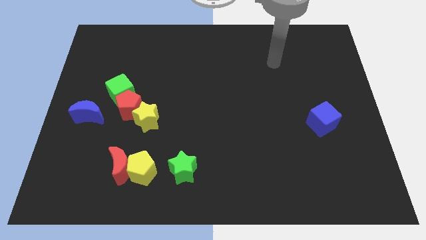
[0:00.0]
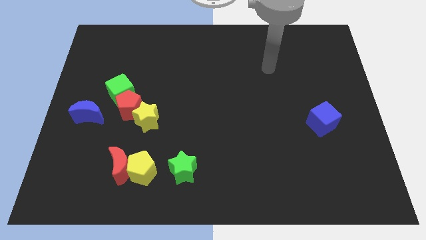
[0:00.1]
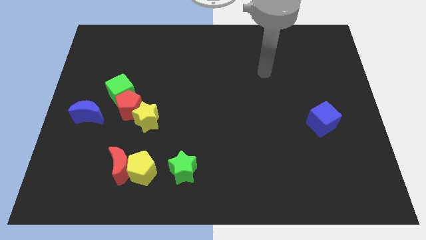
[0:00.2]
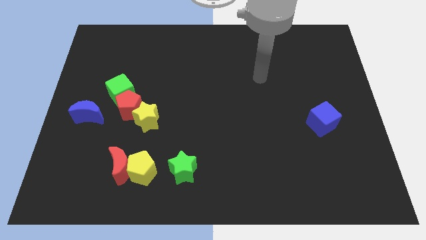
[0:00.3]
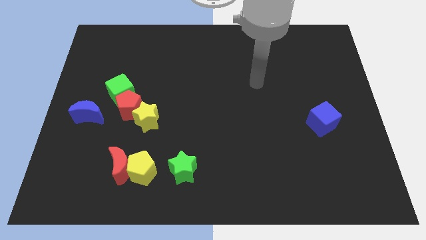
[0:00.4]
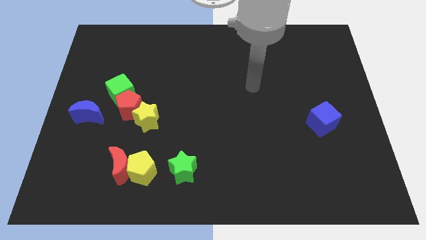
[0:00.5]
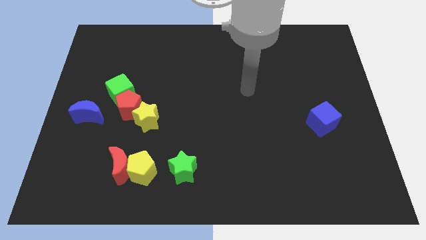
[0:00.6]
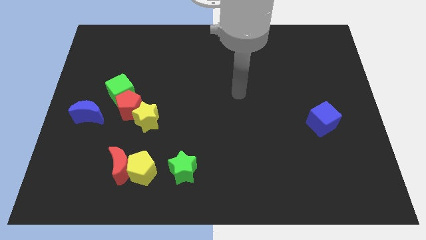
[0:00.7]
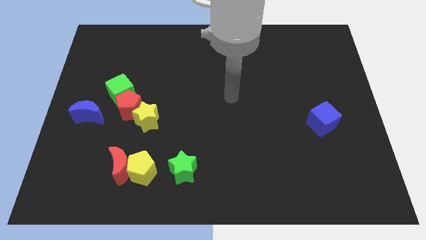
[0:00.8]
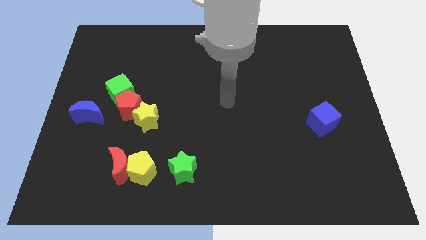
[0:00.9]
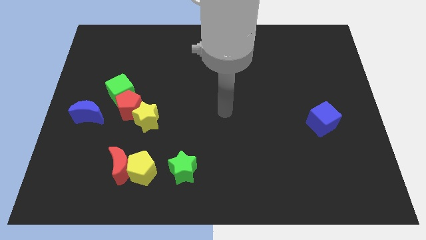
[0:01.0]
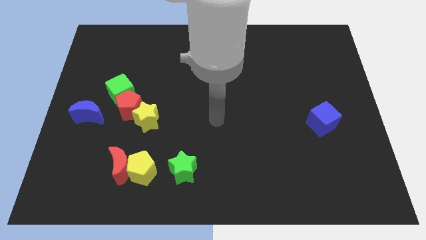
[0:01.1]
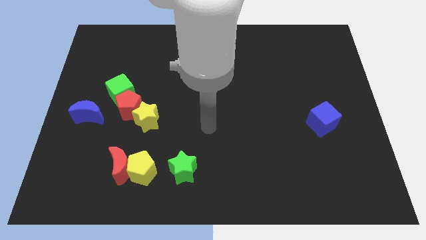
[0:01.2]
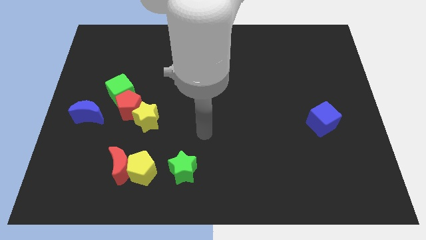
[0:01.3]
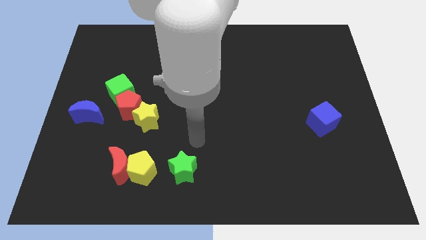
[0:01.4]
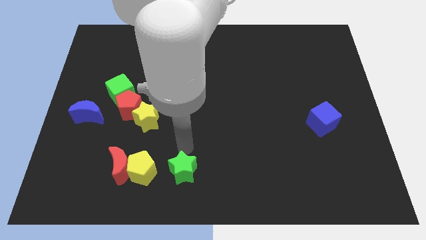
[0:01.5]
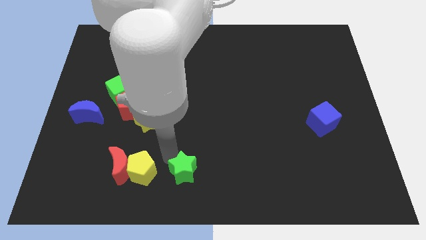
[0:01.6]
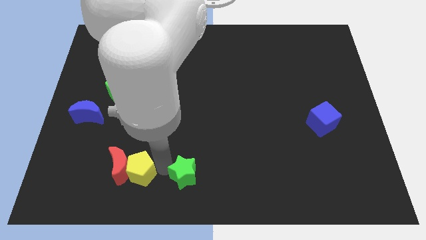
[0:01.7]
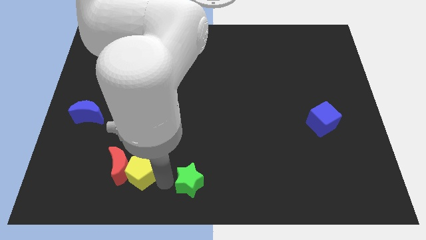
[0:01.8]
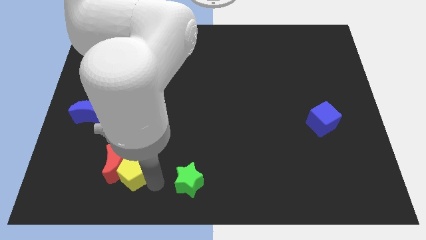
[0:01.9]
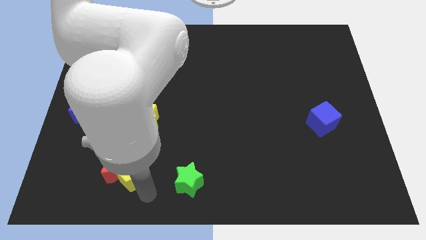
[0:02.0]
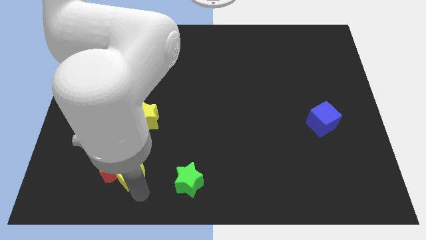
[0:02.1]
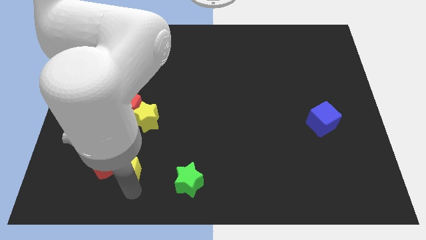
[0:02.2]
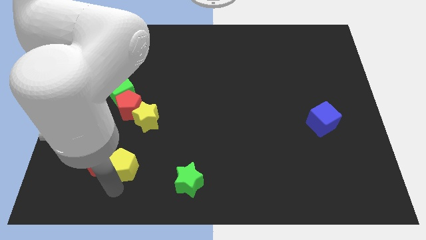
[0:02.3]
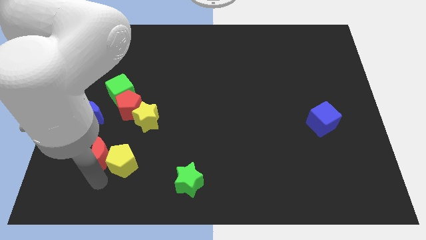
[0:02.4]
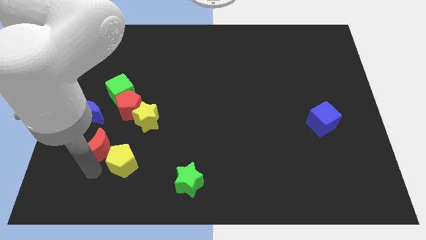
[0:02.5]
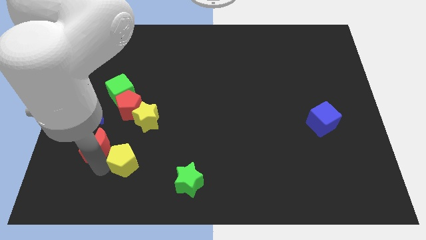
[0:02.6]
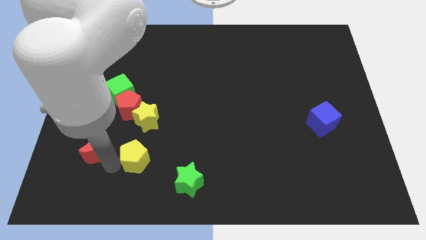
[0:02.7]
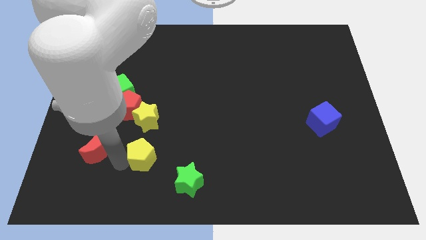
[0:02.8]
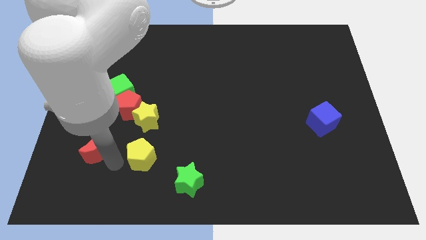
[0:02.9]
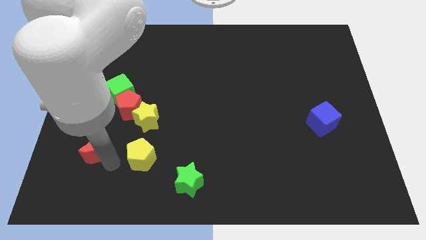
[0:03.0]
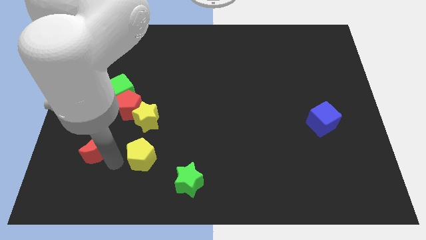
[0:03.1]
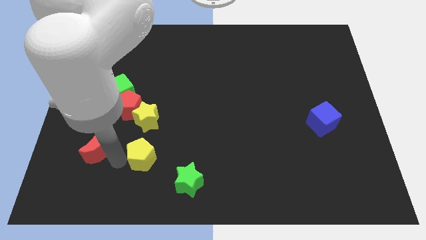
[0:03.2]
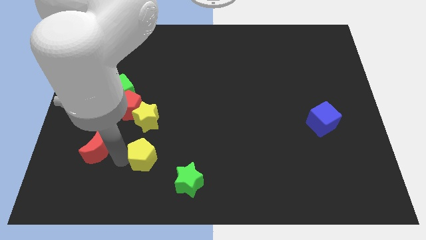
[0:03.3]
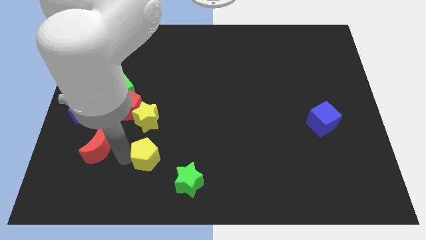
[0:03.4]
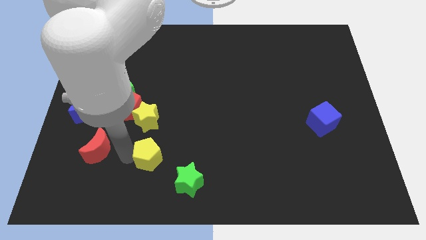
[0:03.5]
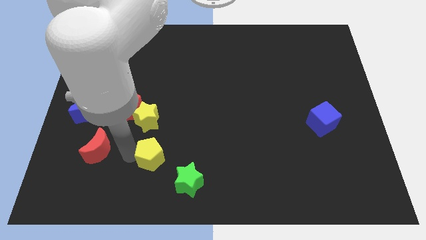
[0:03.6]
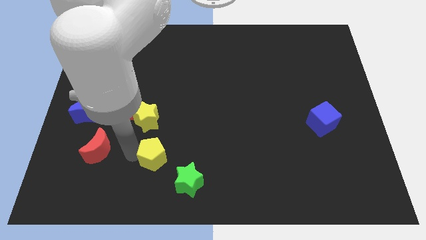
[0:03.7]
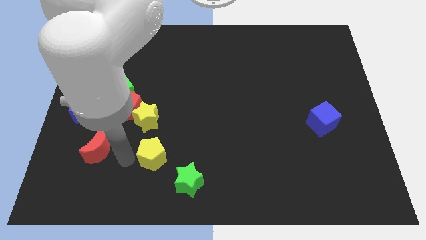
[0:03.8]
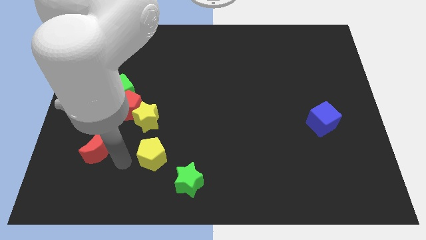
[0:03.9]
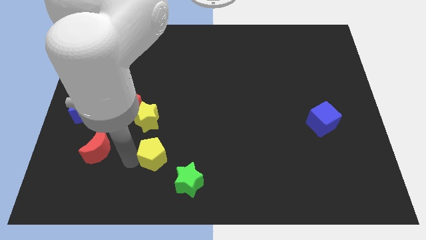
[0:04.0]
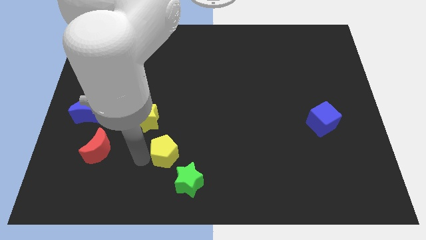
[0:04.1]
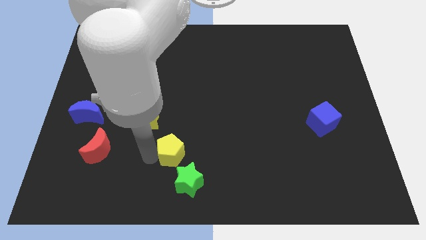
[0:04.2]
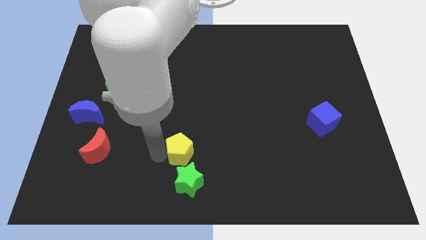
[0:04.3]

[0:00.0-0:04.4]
slide the yellow pentagon to the right a little

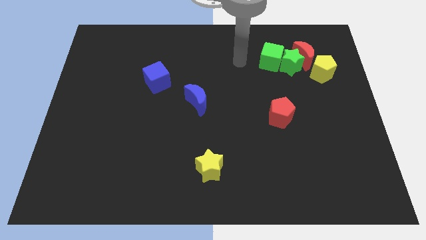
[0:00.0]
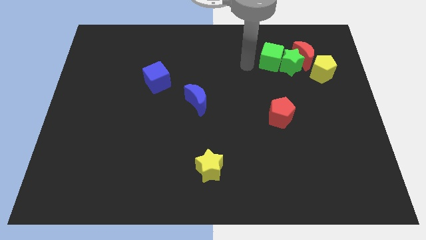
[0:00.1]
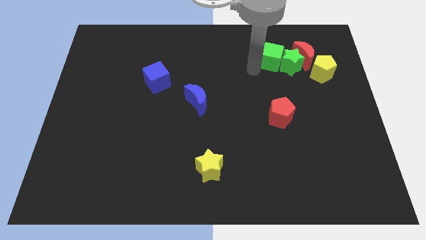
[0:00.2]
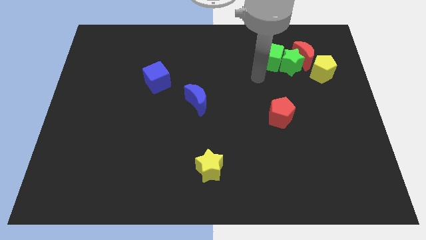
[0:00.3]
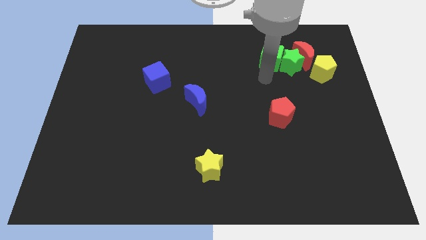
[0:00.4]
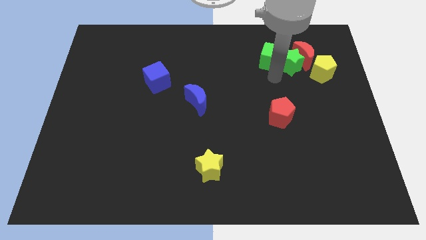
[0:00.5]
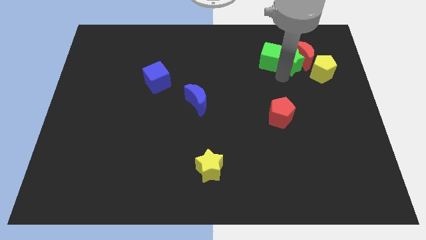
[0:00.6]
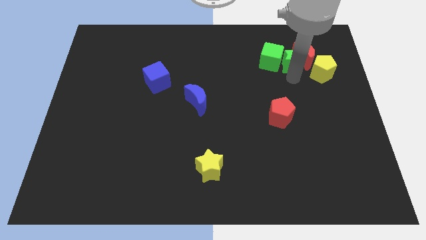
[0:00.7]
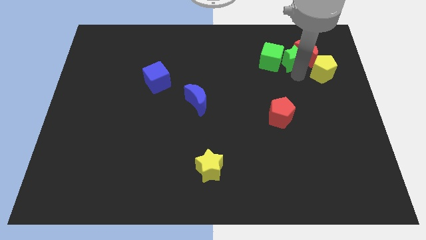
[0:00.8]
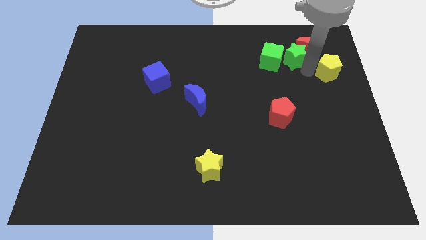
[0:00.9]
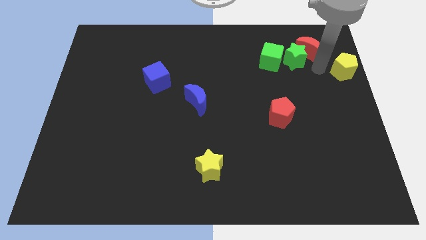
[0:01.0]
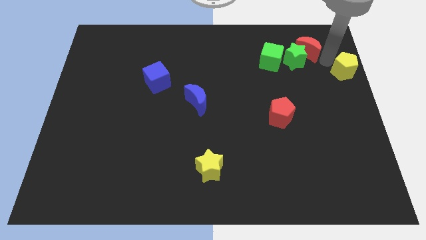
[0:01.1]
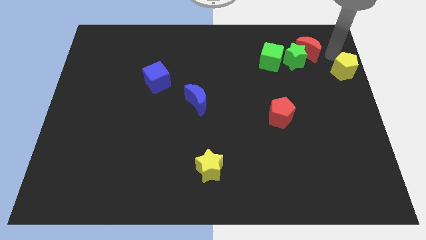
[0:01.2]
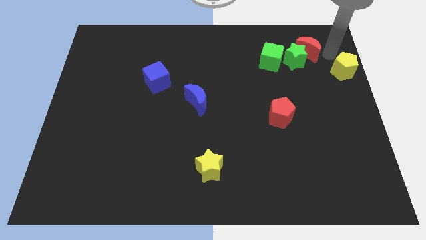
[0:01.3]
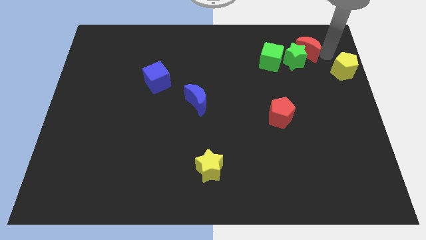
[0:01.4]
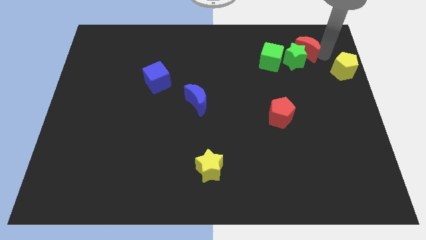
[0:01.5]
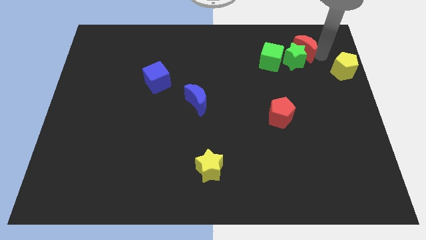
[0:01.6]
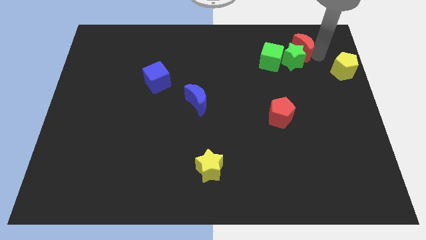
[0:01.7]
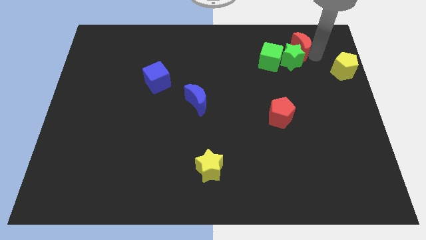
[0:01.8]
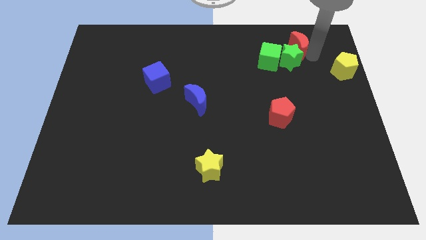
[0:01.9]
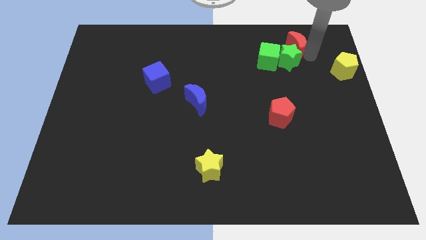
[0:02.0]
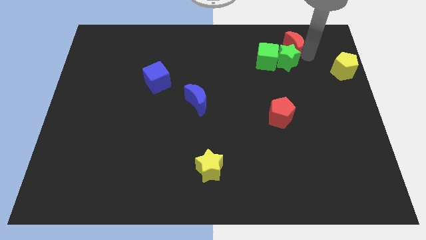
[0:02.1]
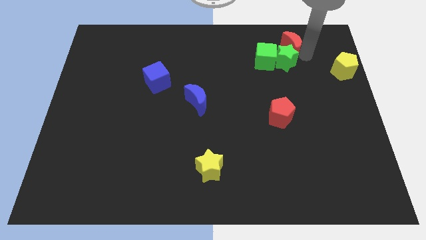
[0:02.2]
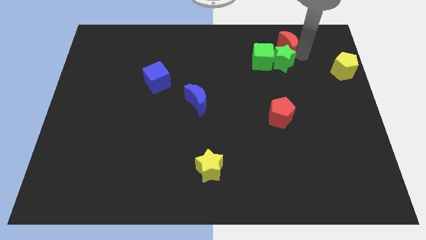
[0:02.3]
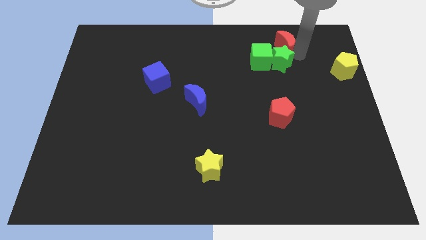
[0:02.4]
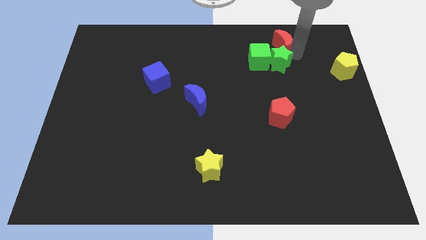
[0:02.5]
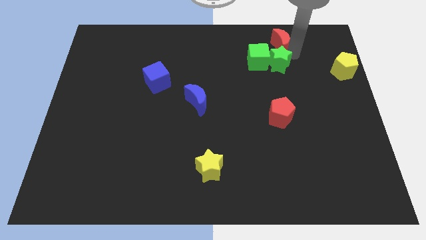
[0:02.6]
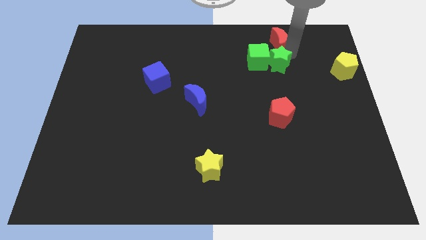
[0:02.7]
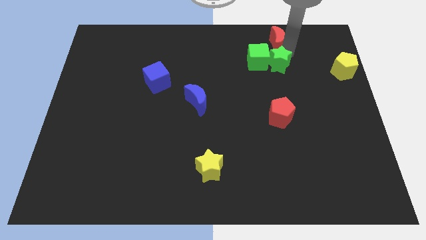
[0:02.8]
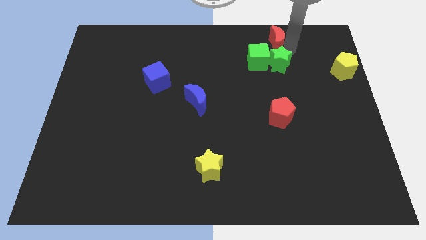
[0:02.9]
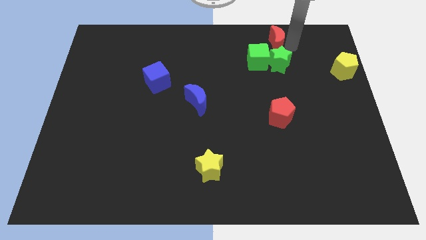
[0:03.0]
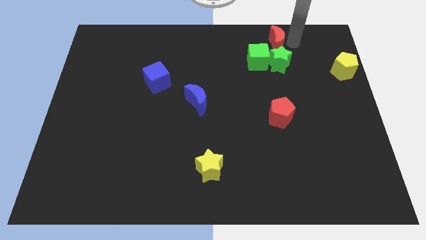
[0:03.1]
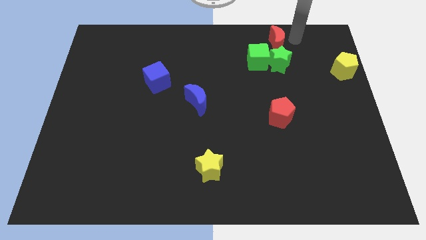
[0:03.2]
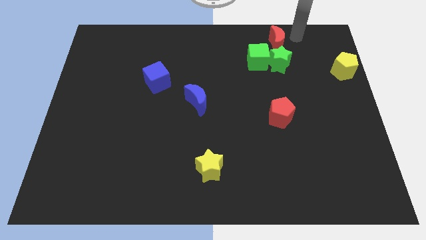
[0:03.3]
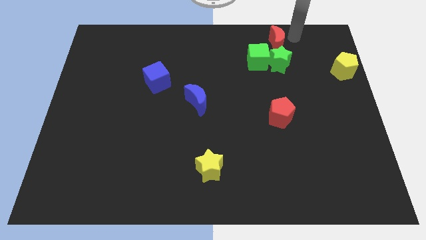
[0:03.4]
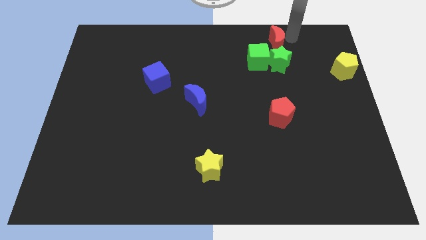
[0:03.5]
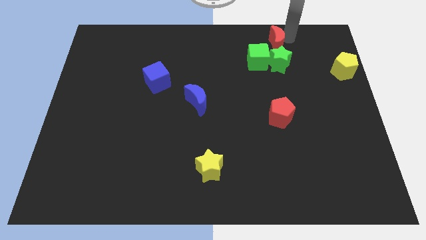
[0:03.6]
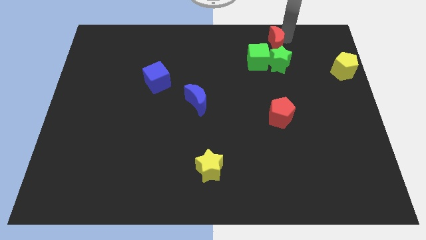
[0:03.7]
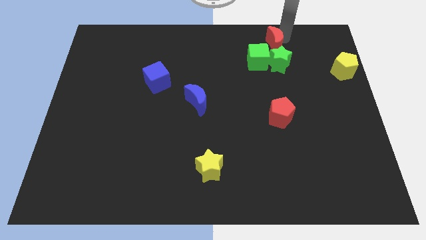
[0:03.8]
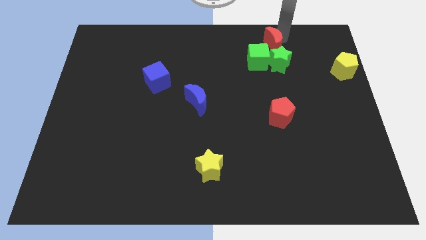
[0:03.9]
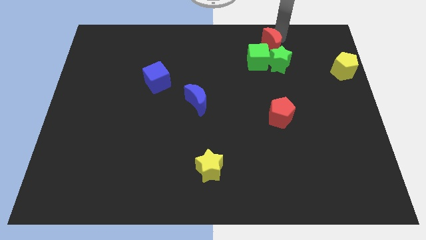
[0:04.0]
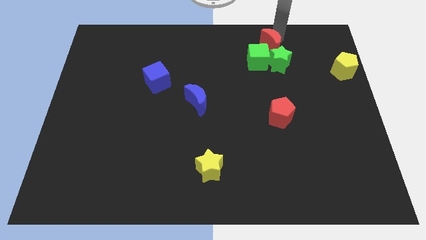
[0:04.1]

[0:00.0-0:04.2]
move the red moon a bit to the left
